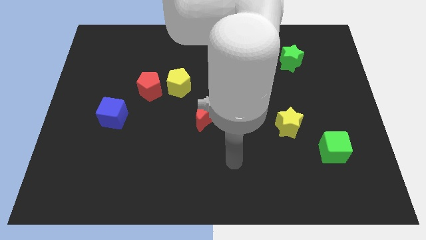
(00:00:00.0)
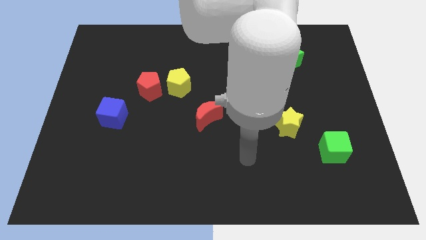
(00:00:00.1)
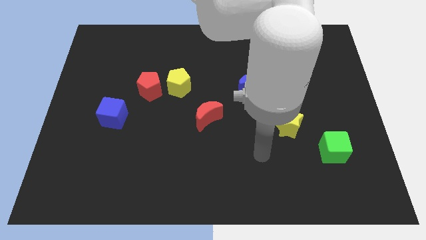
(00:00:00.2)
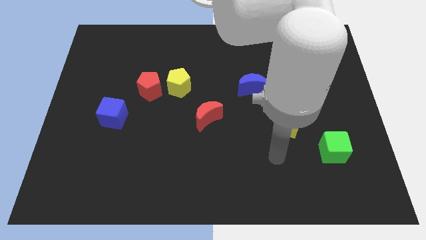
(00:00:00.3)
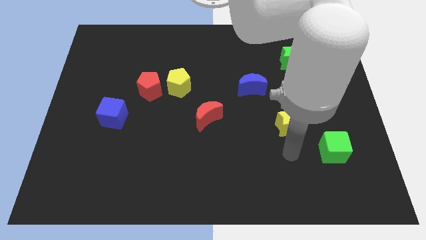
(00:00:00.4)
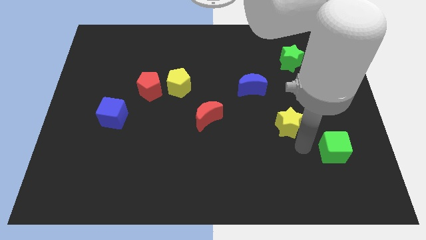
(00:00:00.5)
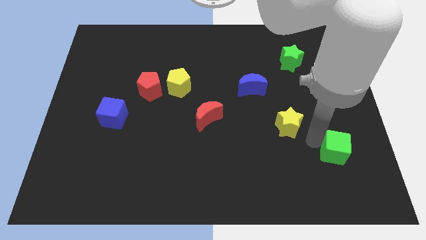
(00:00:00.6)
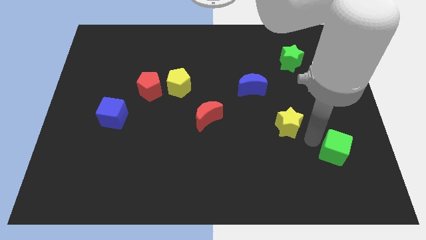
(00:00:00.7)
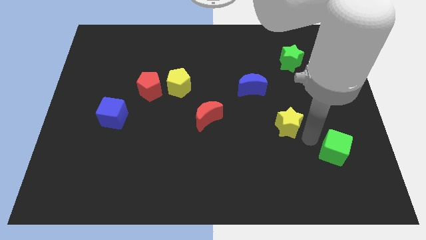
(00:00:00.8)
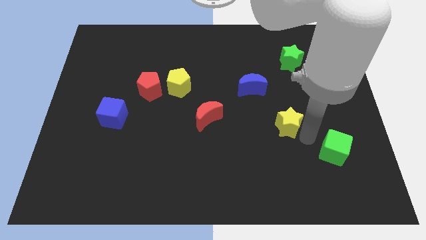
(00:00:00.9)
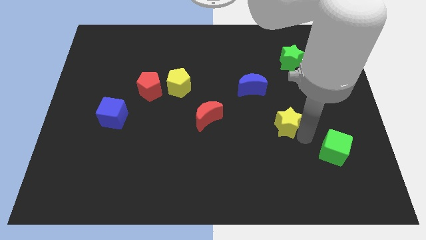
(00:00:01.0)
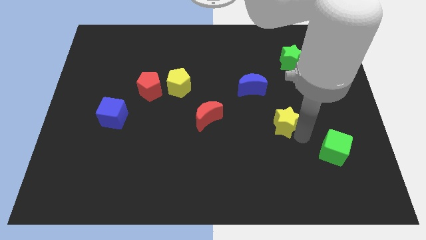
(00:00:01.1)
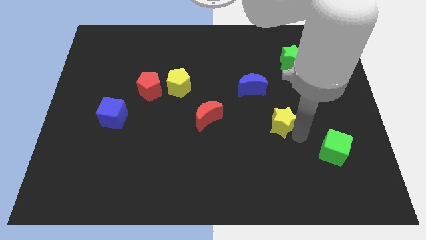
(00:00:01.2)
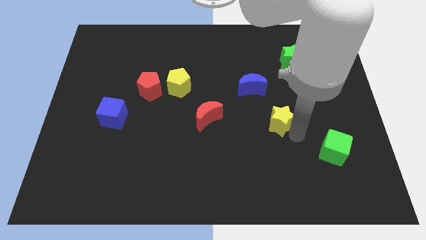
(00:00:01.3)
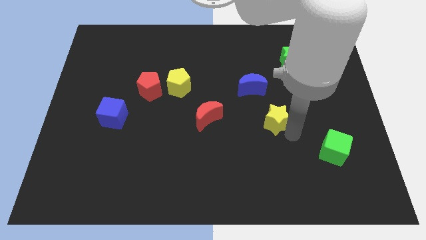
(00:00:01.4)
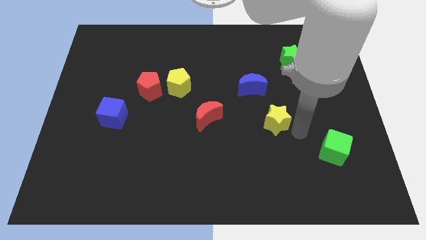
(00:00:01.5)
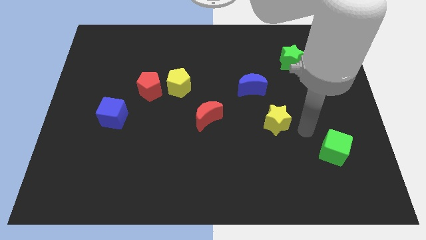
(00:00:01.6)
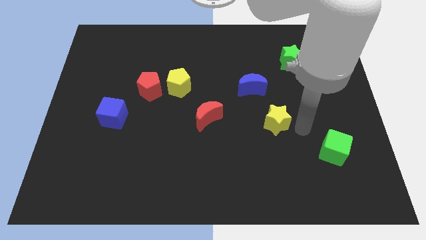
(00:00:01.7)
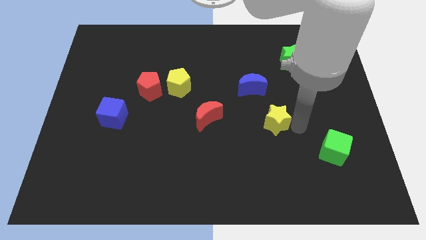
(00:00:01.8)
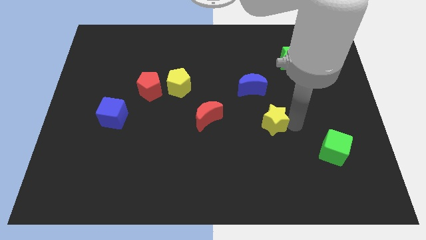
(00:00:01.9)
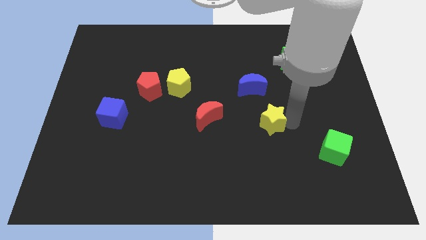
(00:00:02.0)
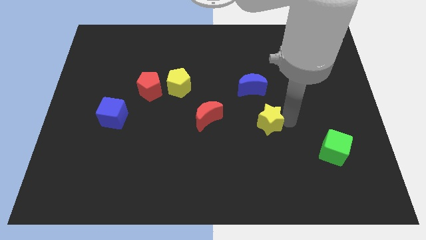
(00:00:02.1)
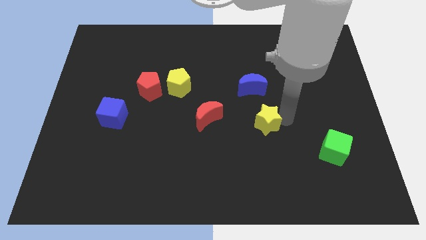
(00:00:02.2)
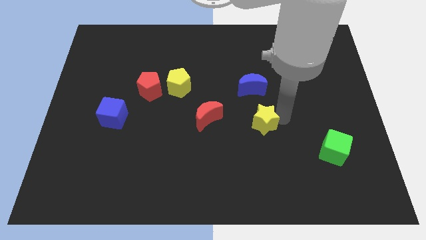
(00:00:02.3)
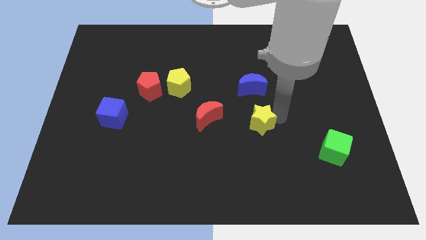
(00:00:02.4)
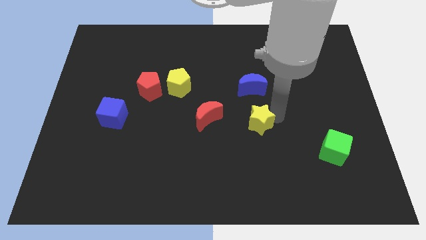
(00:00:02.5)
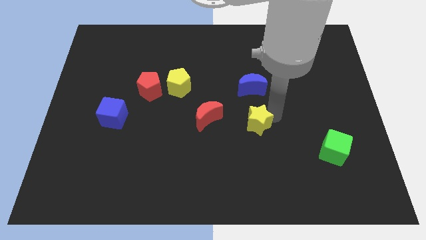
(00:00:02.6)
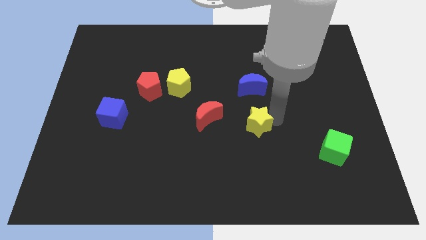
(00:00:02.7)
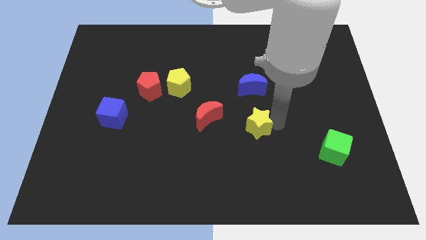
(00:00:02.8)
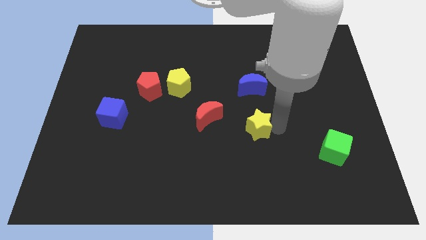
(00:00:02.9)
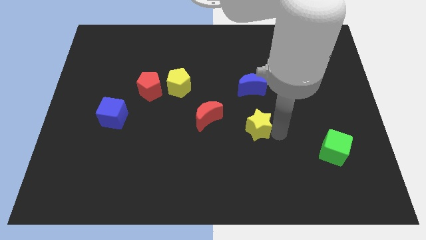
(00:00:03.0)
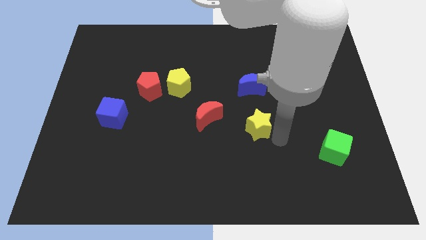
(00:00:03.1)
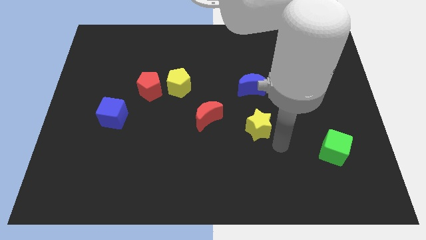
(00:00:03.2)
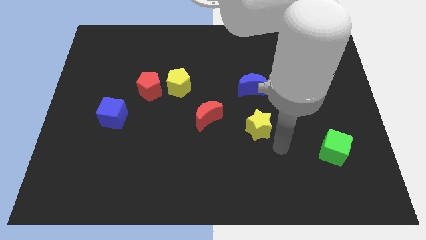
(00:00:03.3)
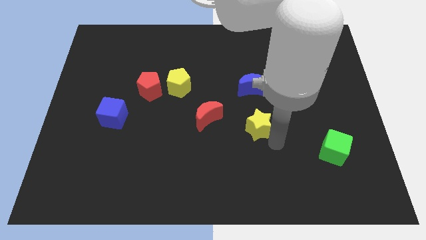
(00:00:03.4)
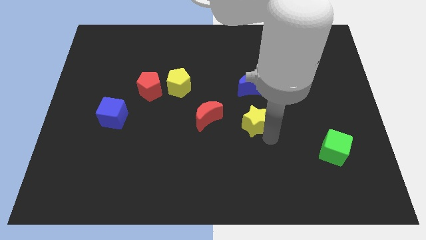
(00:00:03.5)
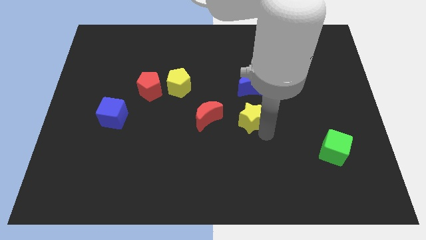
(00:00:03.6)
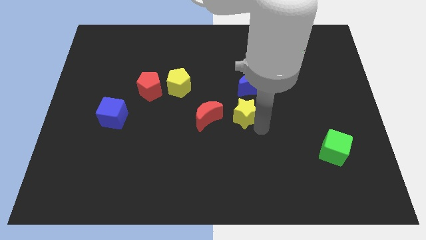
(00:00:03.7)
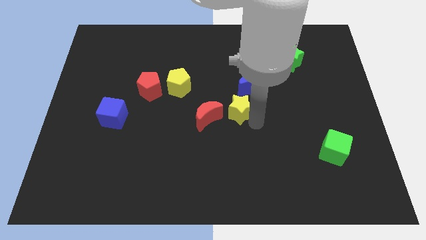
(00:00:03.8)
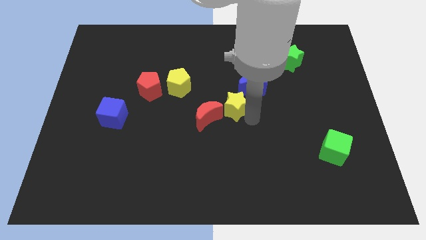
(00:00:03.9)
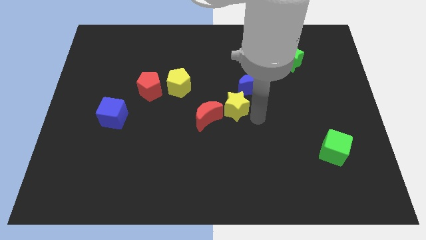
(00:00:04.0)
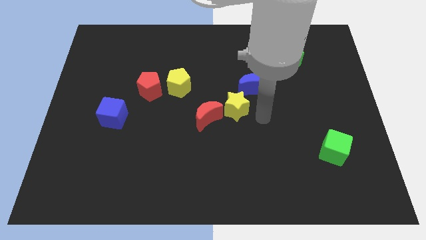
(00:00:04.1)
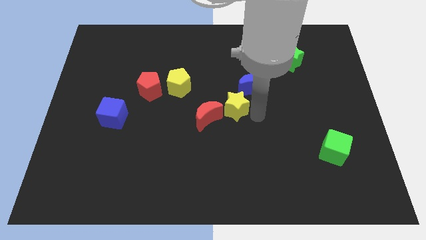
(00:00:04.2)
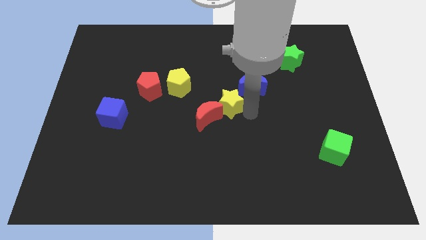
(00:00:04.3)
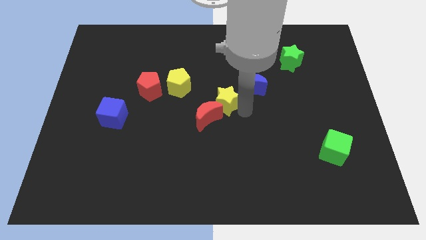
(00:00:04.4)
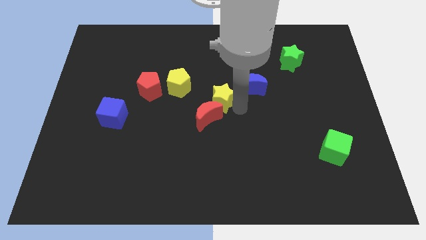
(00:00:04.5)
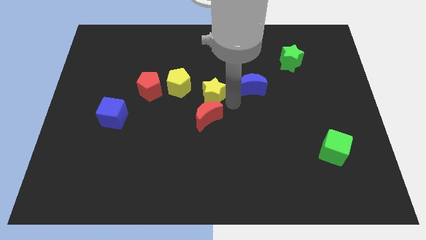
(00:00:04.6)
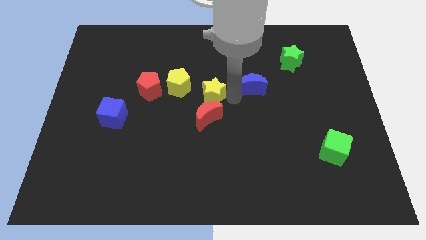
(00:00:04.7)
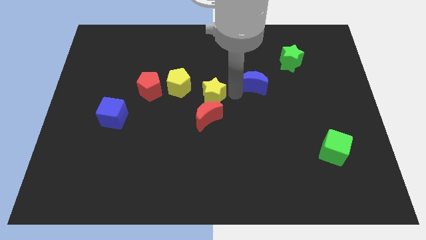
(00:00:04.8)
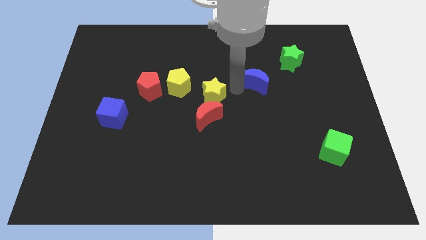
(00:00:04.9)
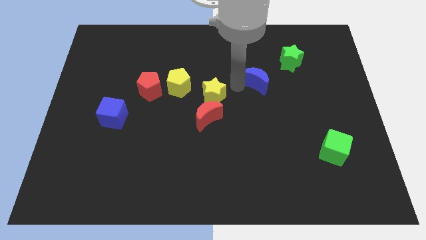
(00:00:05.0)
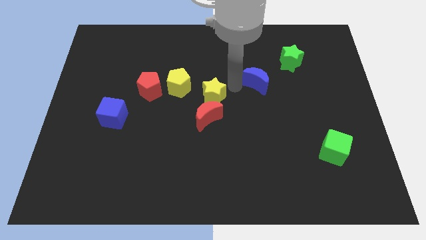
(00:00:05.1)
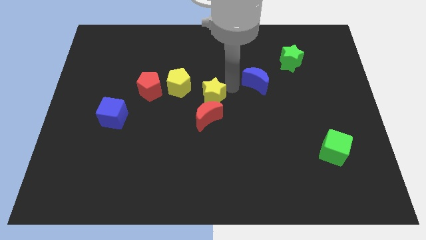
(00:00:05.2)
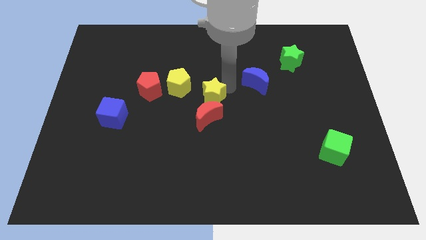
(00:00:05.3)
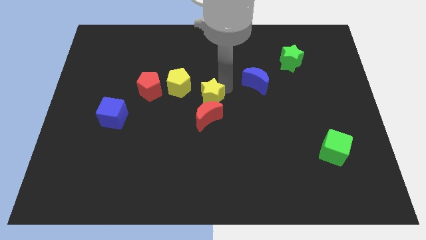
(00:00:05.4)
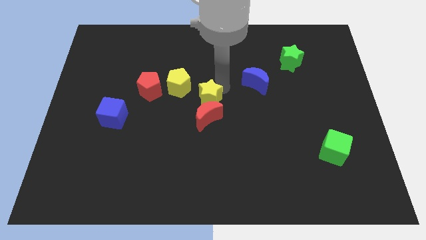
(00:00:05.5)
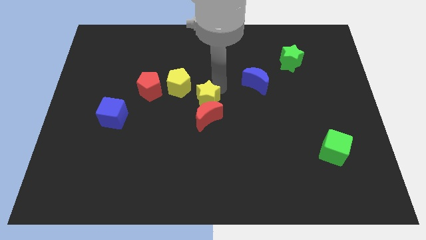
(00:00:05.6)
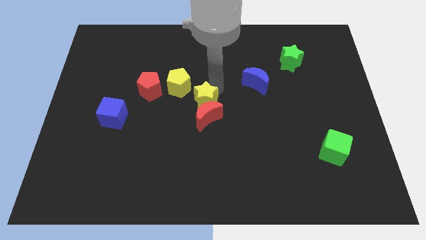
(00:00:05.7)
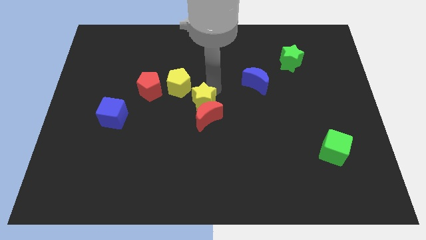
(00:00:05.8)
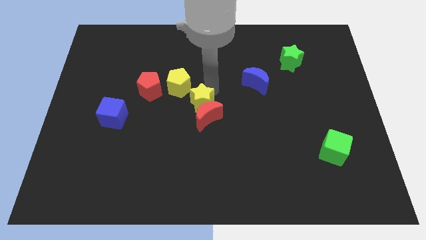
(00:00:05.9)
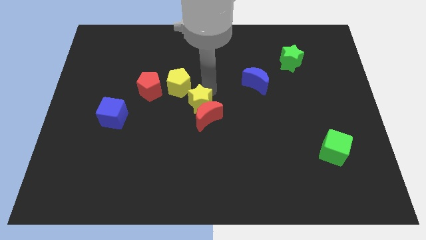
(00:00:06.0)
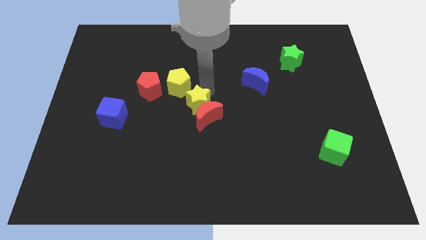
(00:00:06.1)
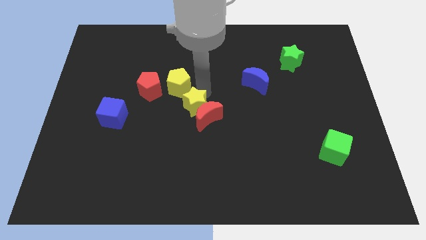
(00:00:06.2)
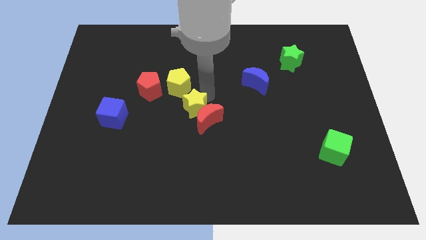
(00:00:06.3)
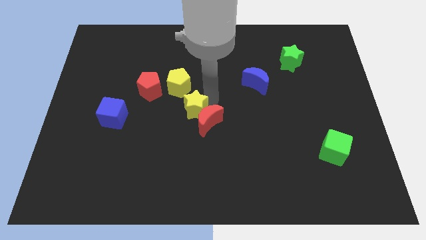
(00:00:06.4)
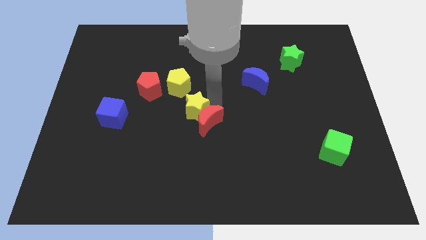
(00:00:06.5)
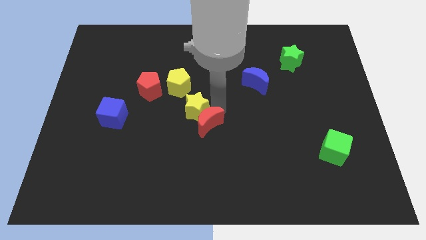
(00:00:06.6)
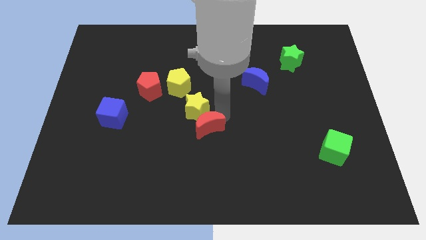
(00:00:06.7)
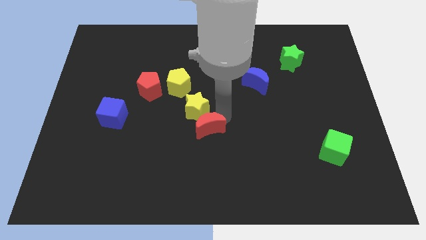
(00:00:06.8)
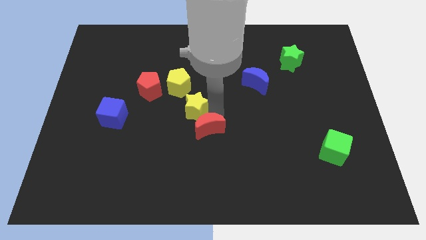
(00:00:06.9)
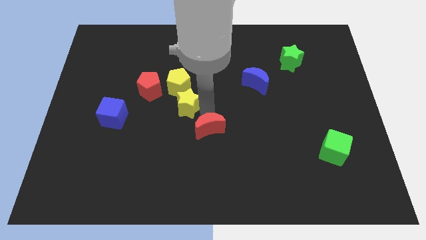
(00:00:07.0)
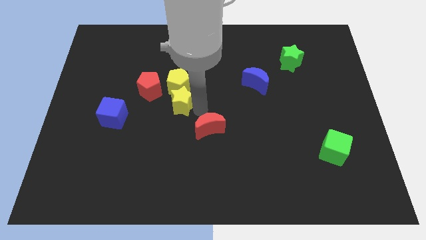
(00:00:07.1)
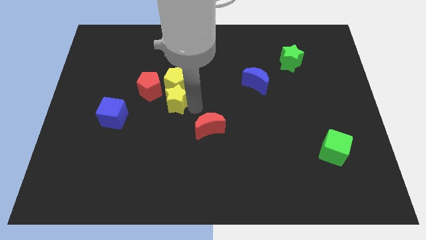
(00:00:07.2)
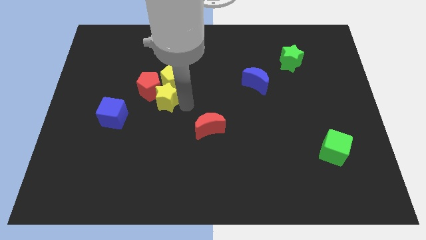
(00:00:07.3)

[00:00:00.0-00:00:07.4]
move the yellow star close to the red pentagon

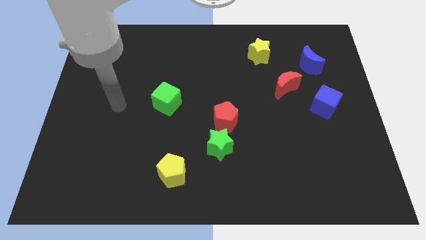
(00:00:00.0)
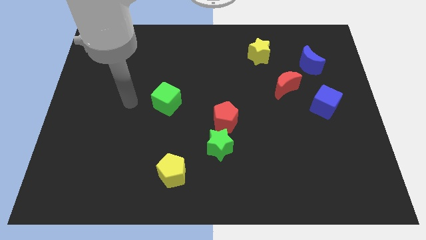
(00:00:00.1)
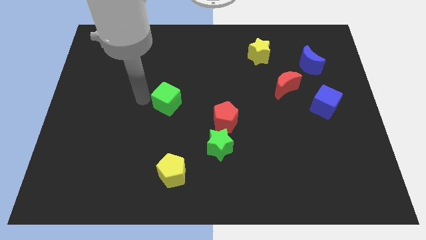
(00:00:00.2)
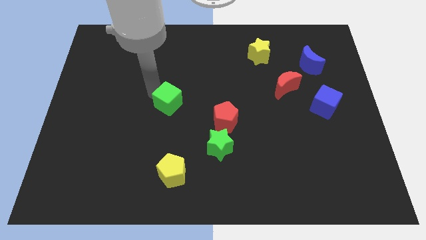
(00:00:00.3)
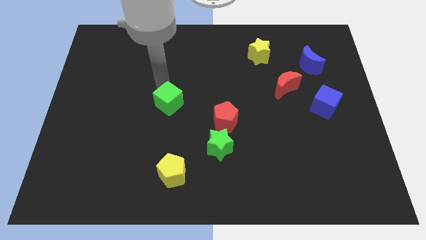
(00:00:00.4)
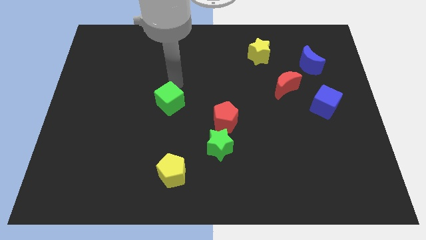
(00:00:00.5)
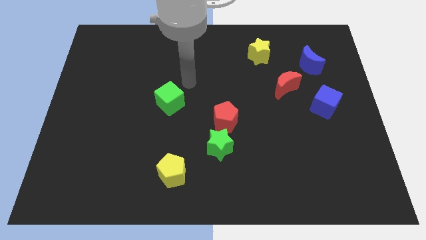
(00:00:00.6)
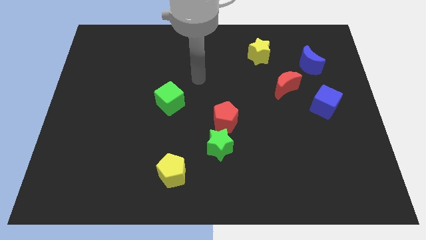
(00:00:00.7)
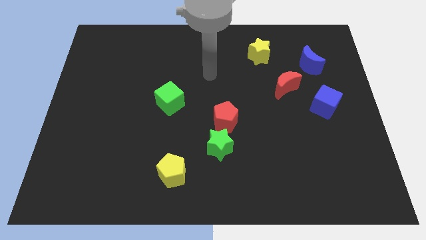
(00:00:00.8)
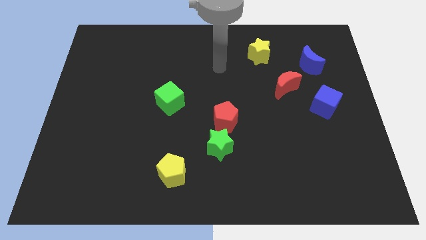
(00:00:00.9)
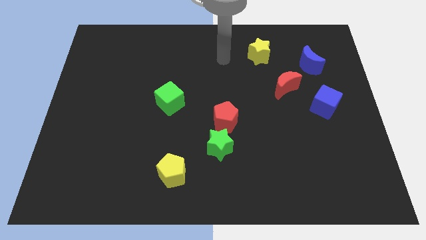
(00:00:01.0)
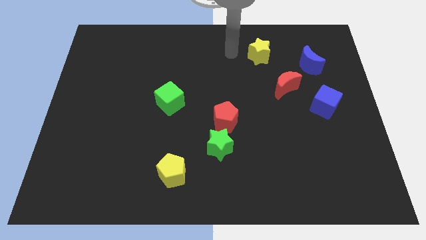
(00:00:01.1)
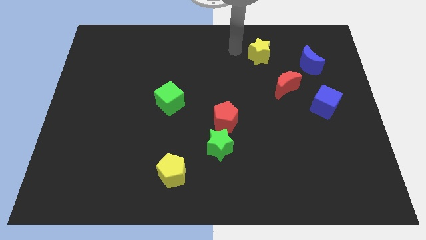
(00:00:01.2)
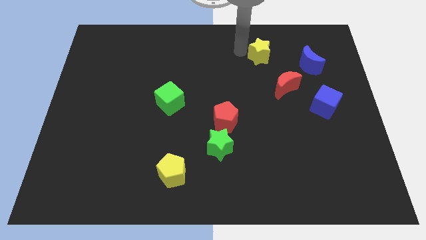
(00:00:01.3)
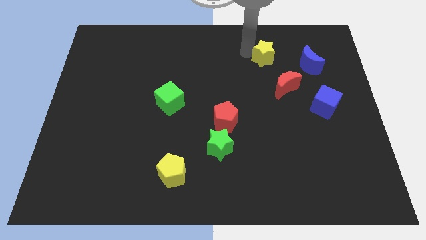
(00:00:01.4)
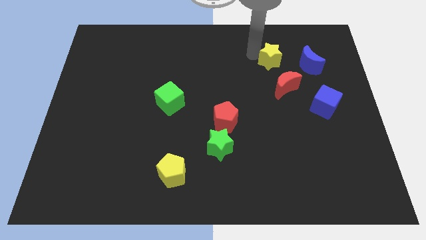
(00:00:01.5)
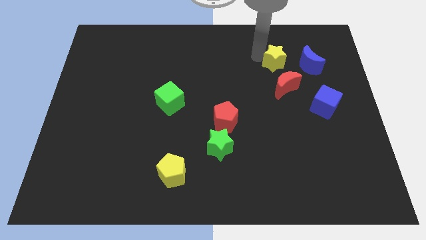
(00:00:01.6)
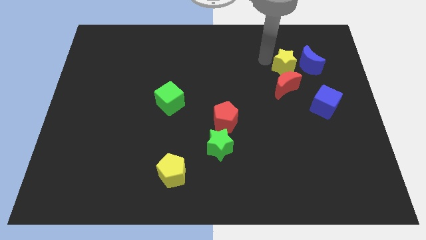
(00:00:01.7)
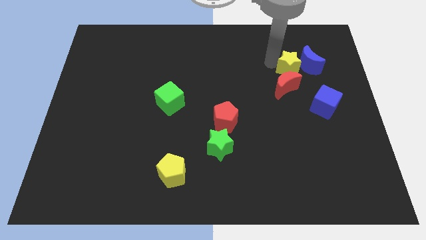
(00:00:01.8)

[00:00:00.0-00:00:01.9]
move the yellow star close to the blue moon
